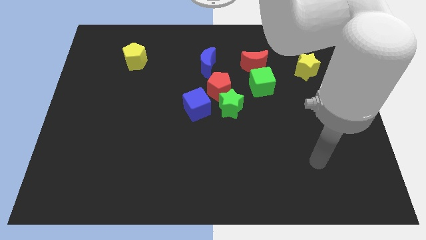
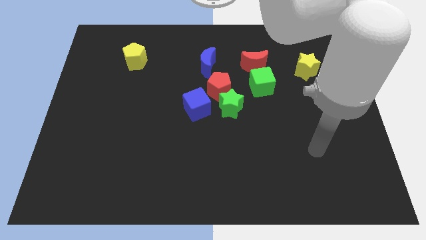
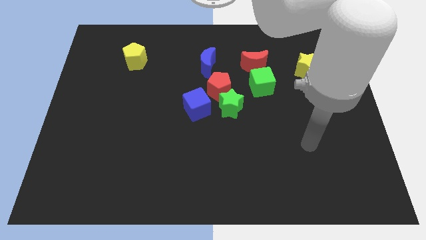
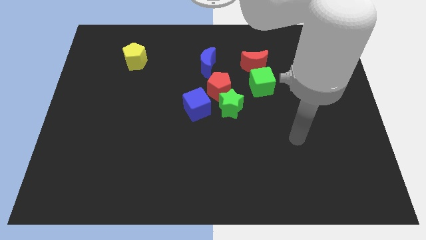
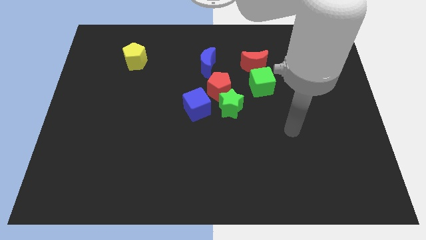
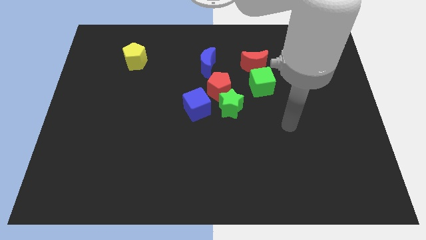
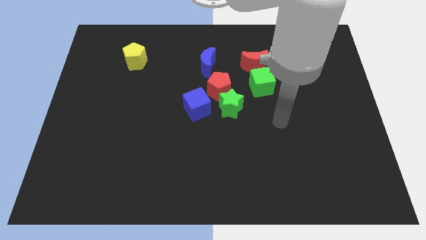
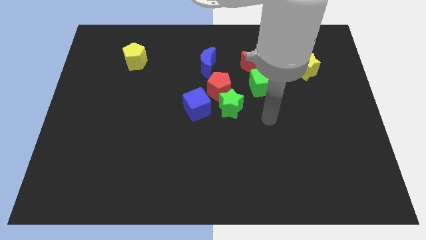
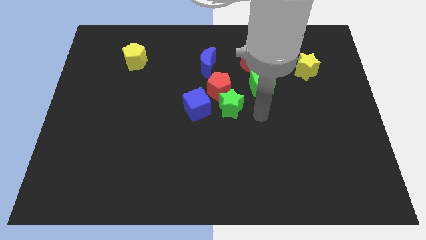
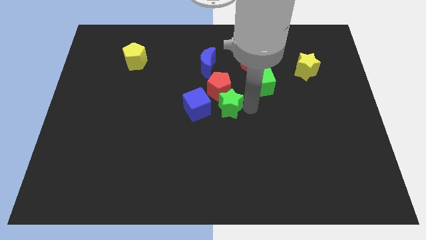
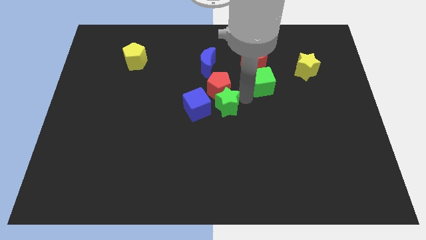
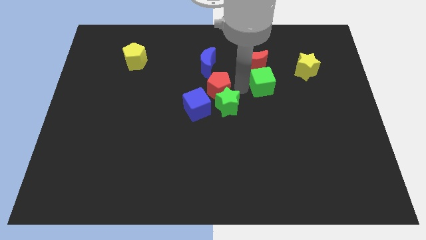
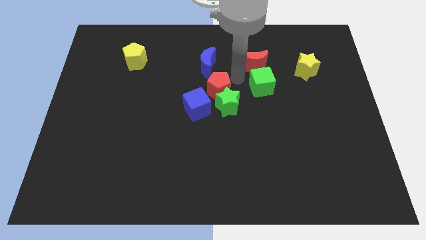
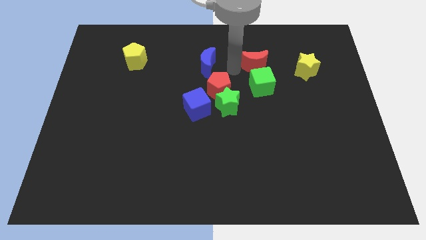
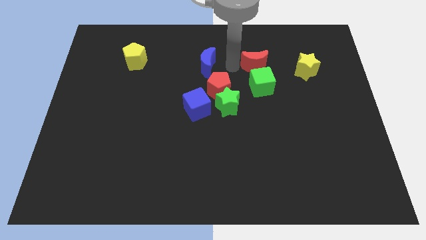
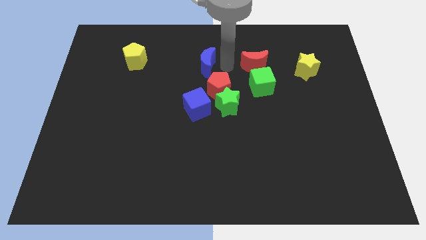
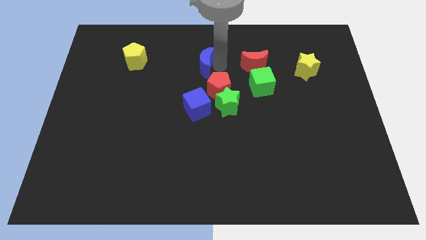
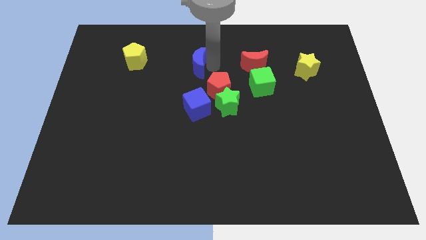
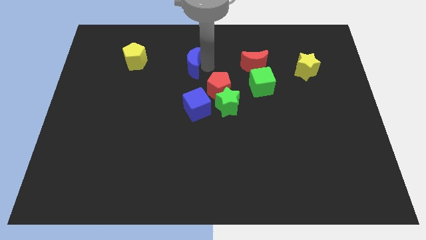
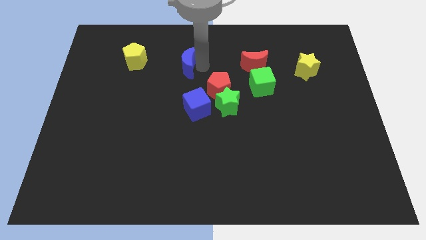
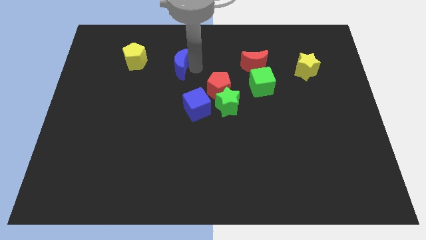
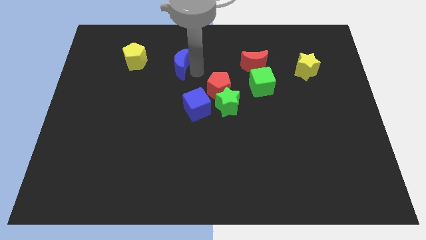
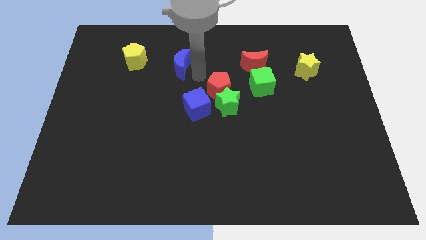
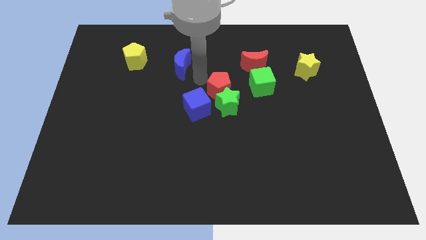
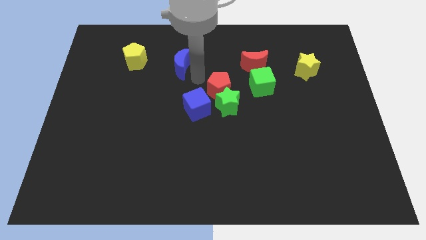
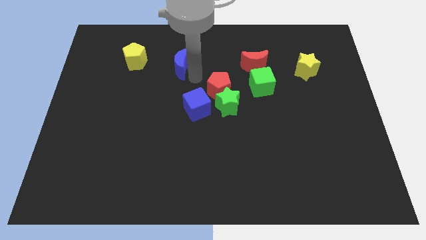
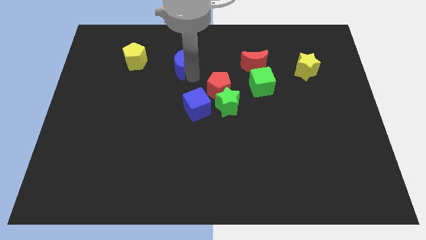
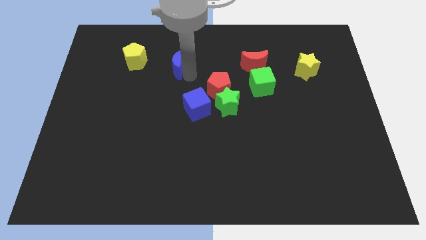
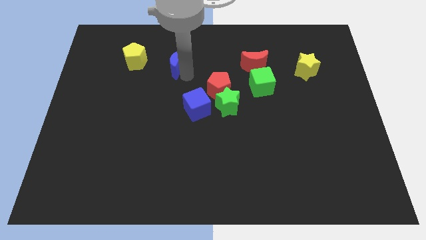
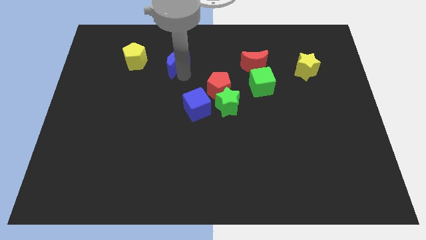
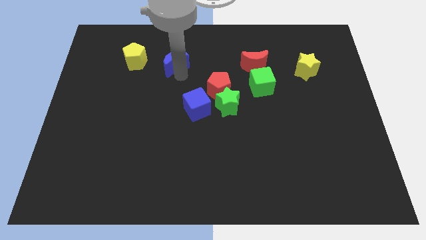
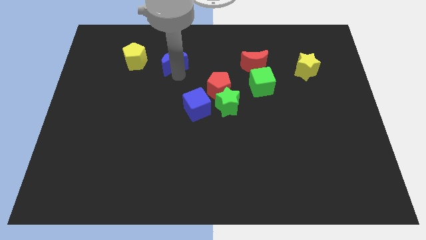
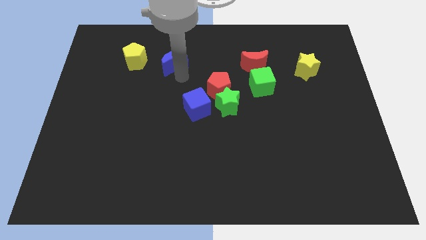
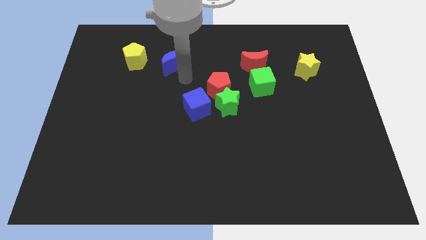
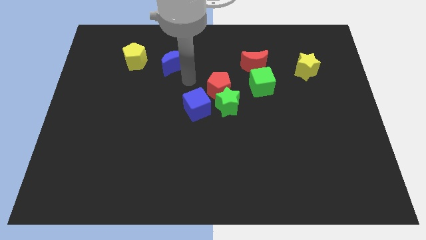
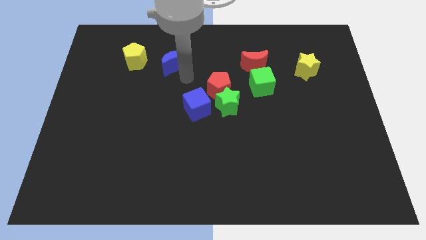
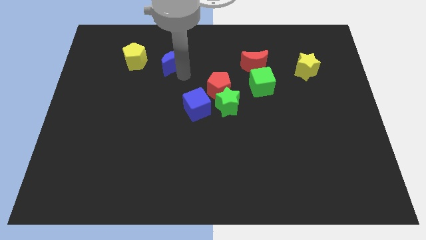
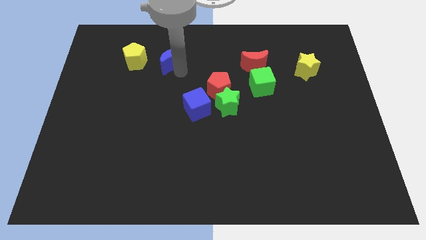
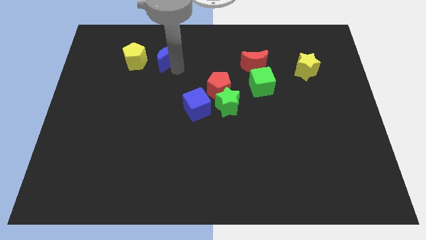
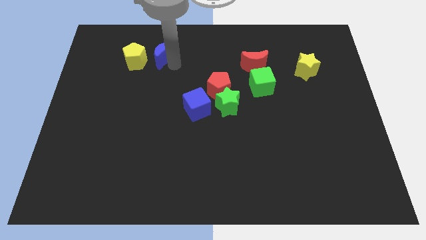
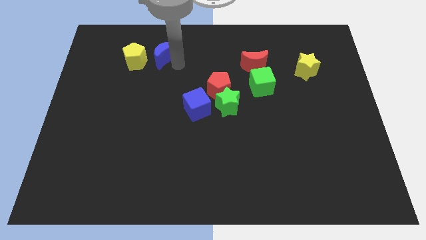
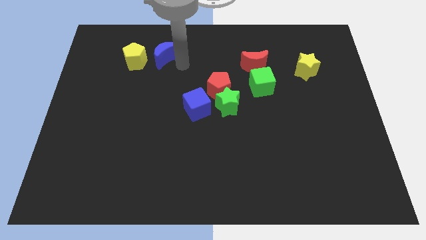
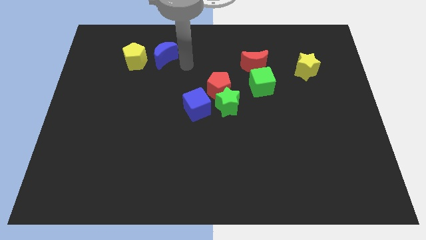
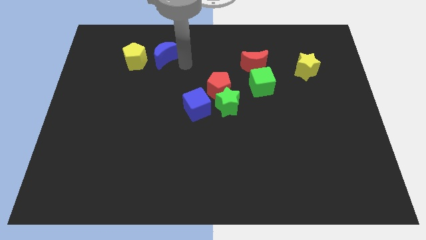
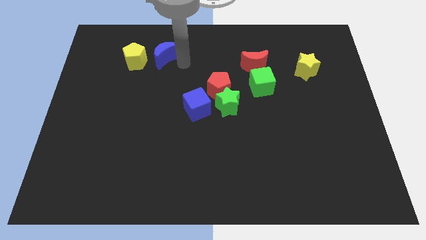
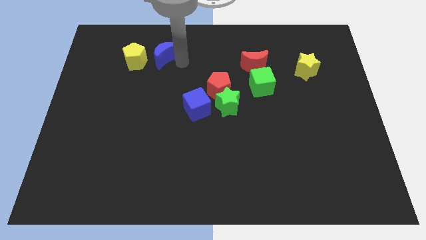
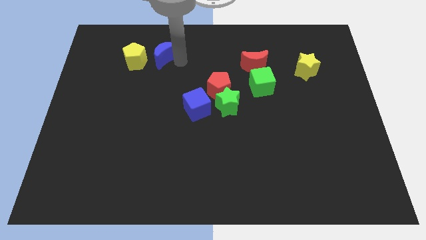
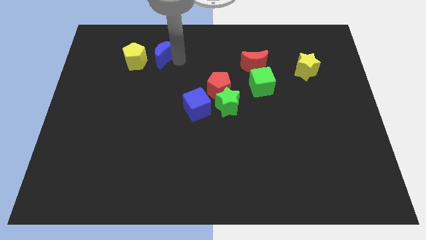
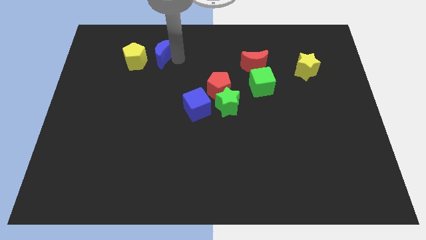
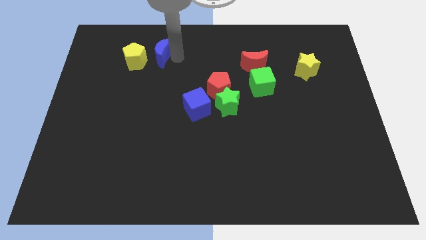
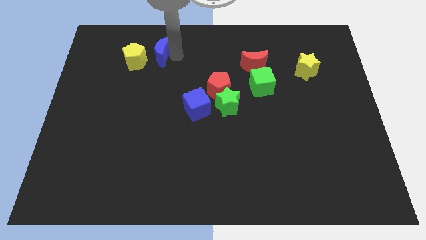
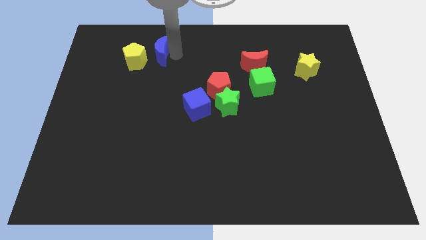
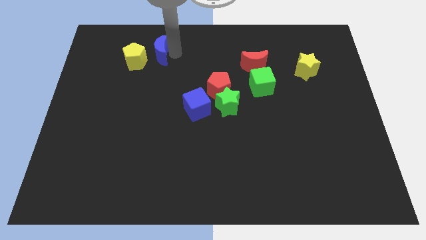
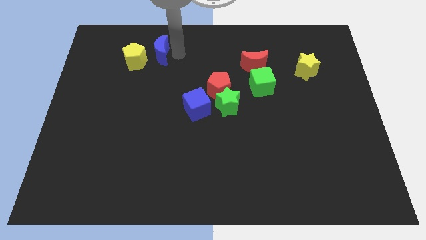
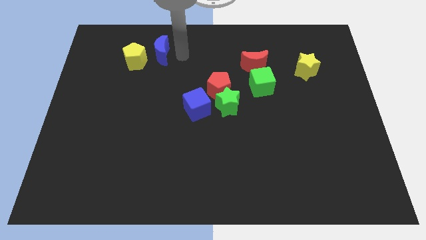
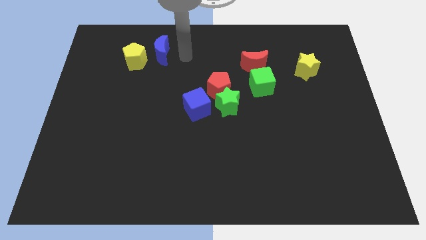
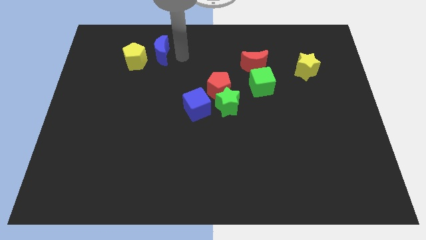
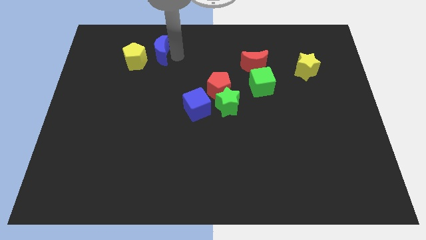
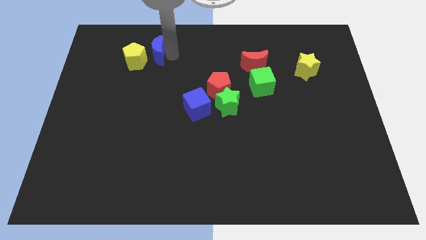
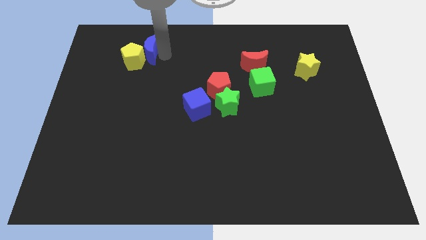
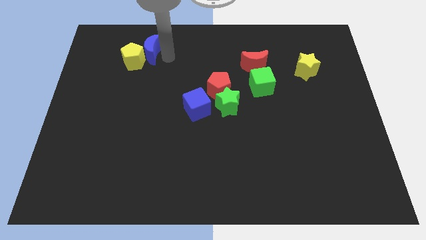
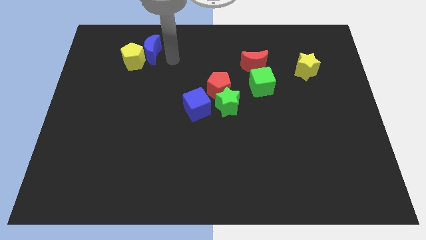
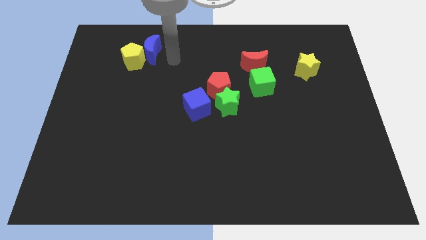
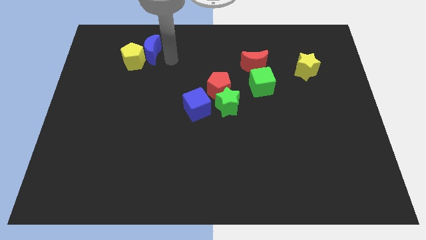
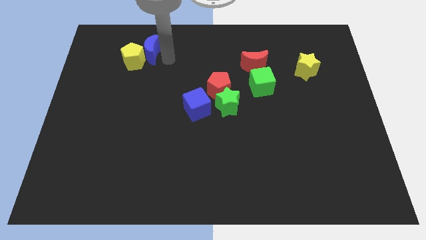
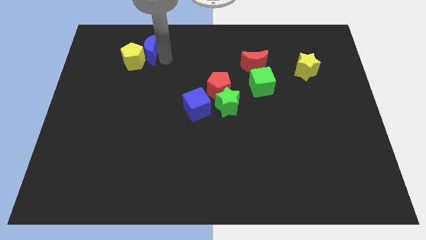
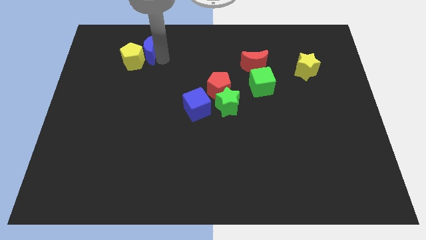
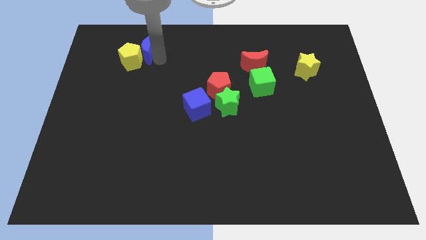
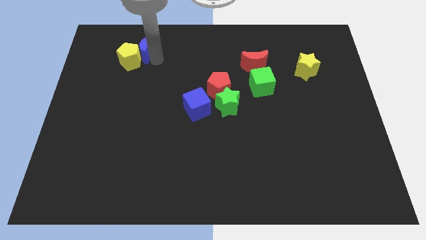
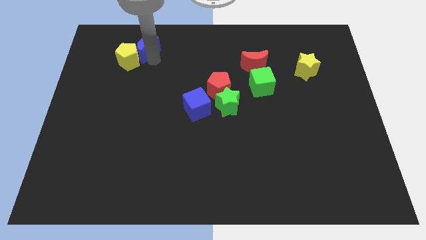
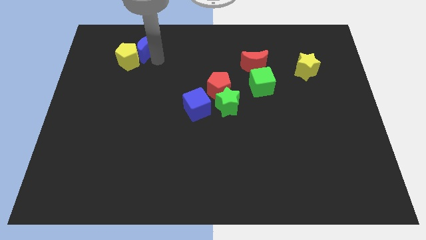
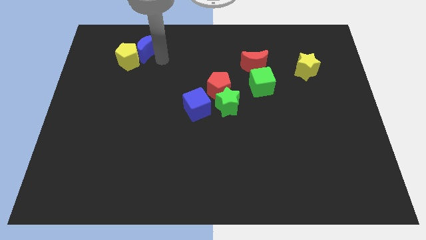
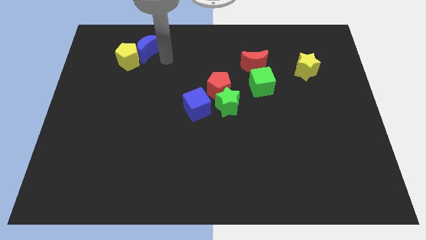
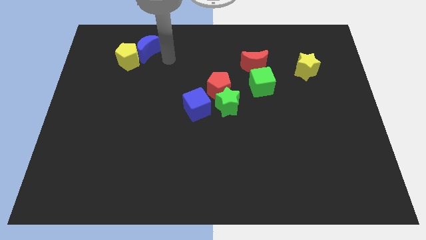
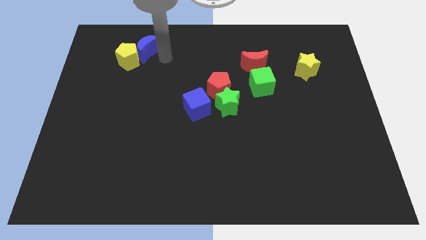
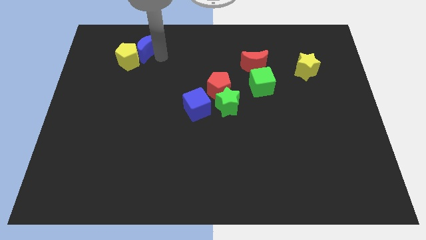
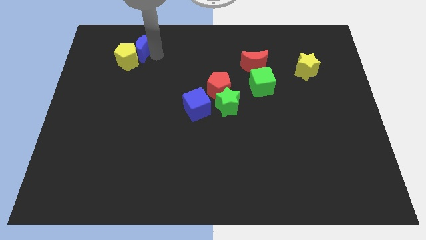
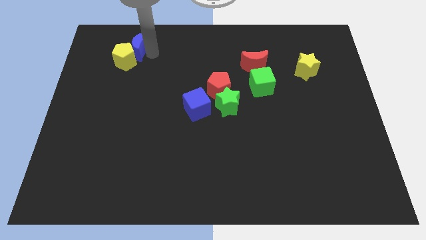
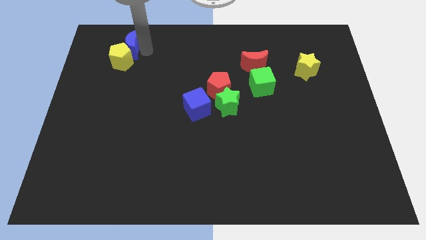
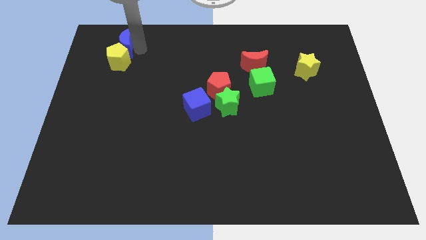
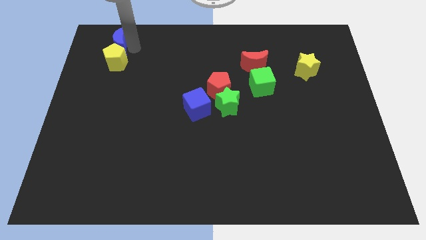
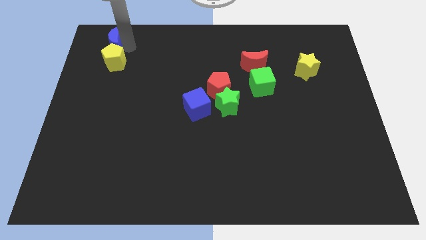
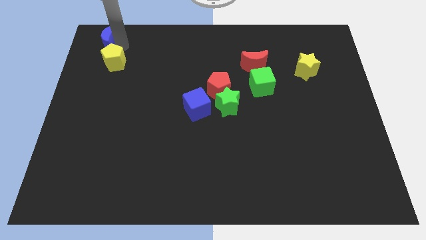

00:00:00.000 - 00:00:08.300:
move the blue moon to the upper left corner
